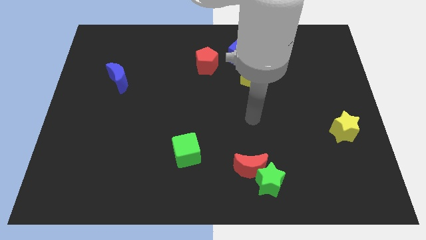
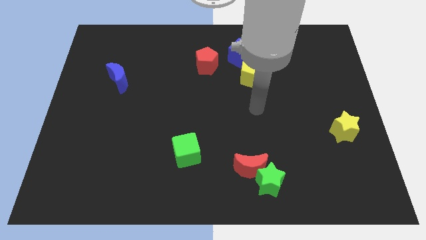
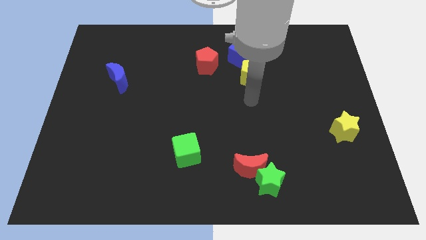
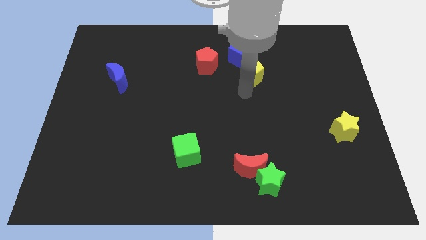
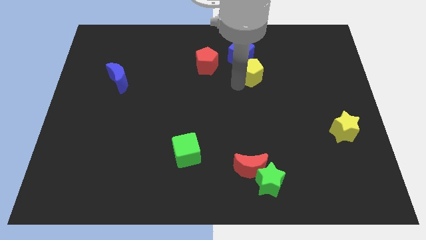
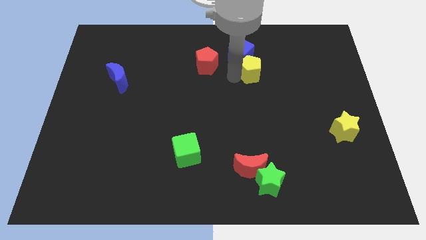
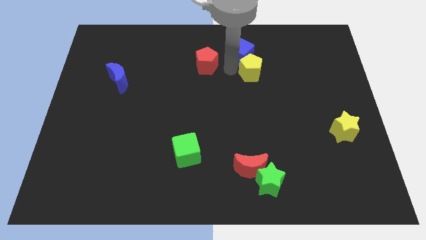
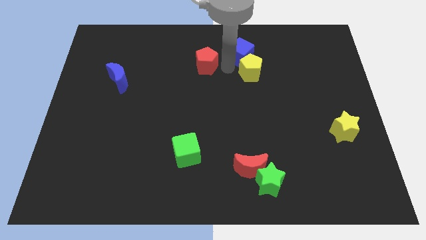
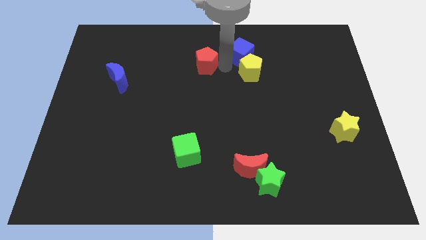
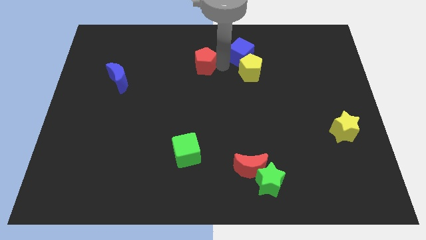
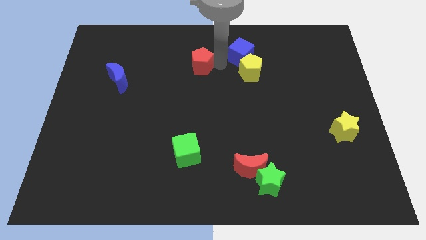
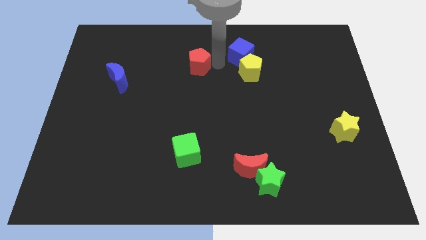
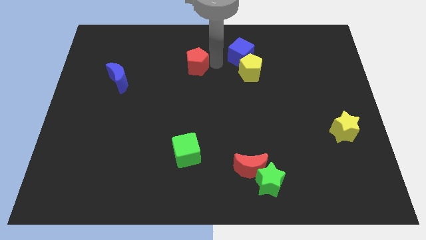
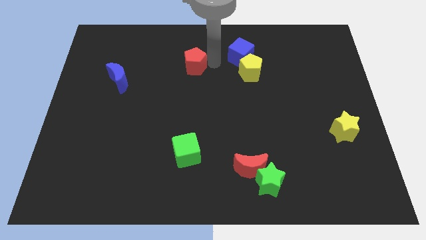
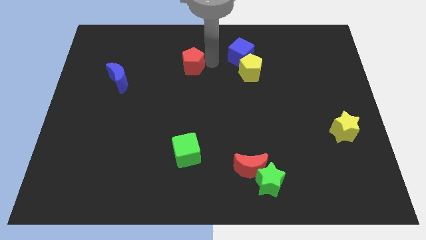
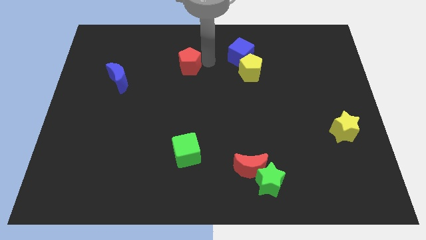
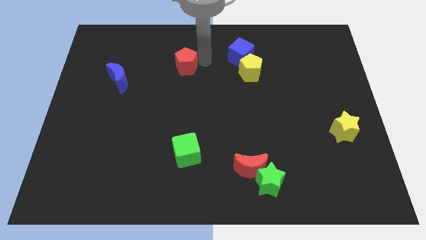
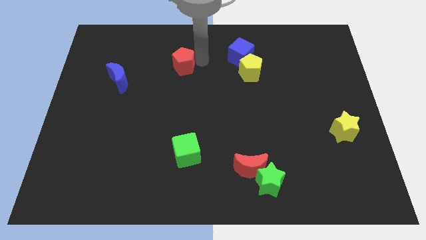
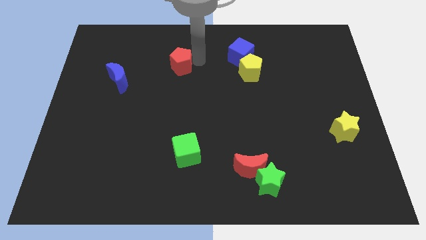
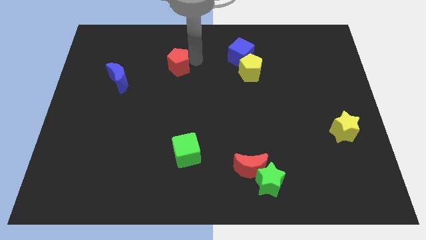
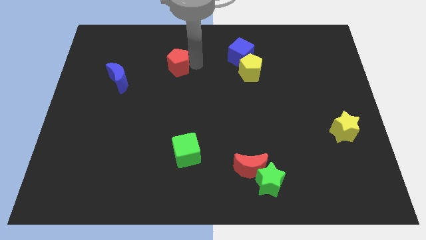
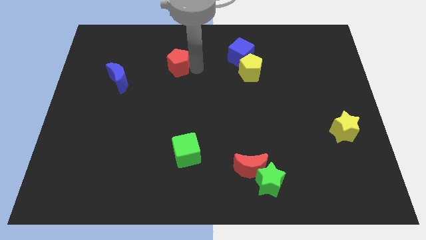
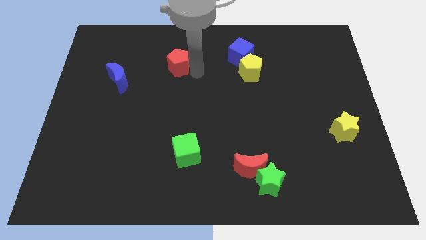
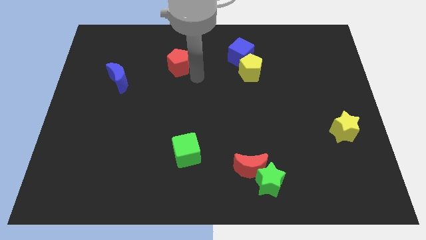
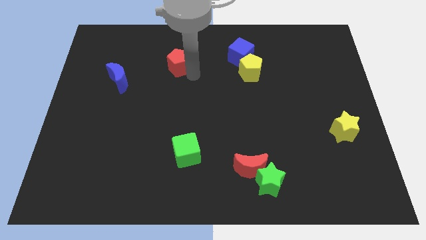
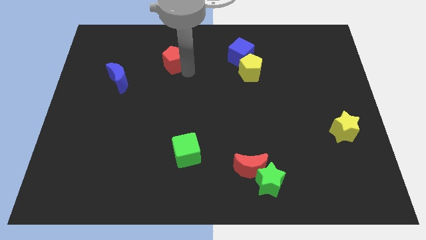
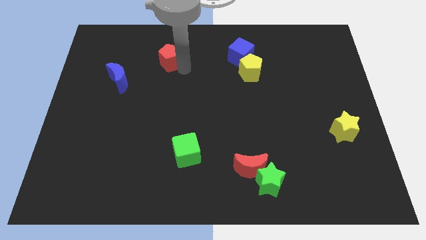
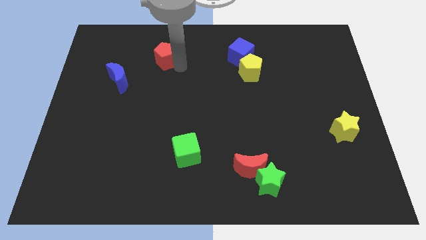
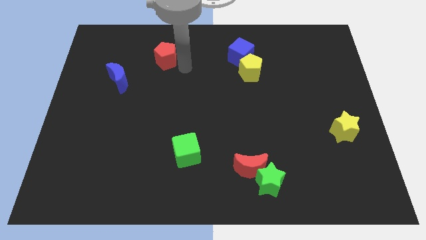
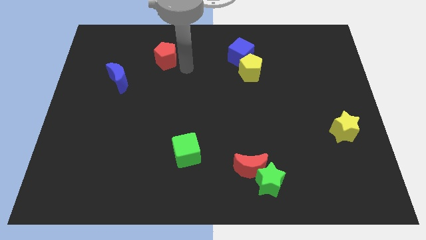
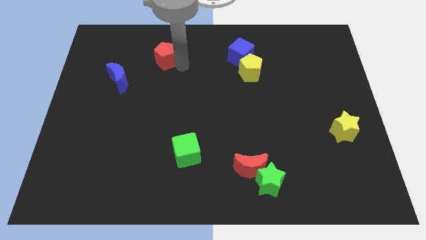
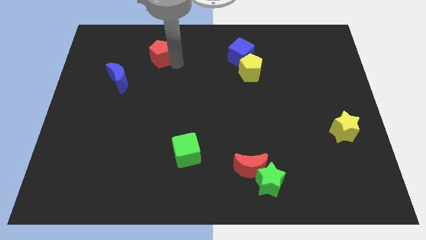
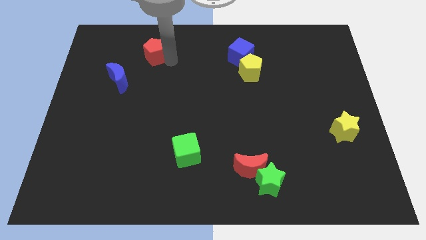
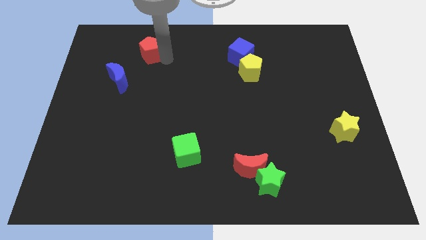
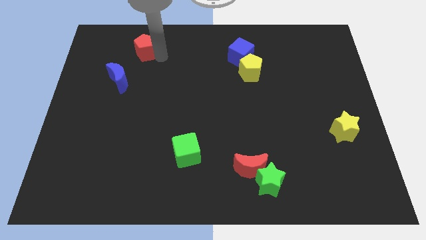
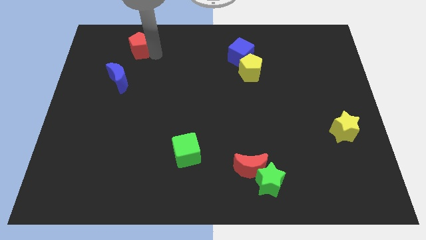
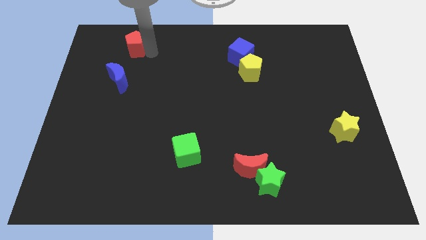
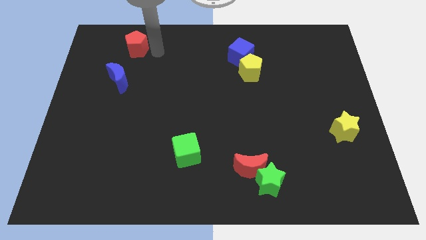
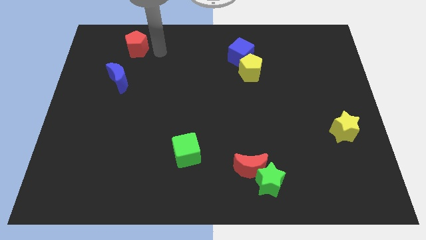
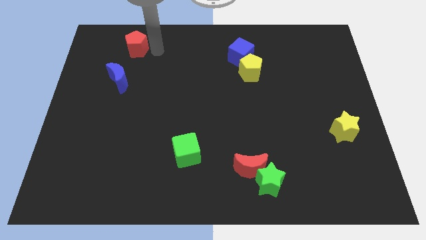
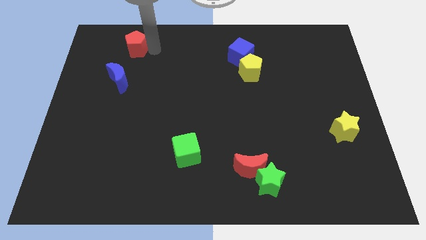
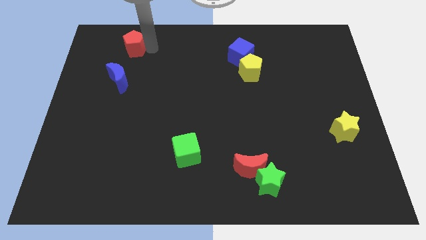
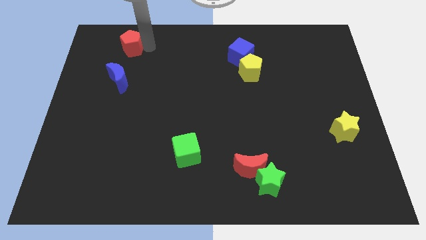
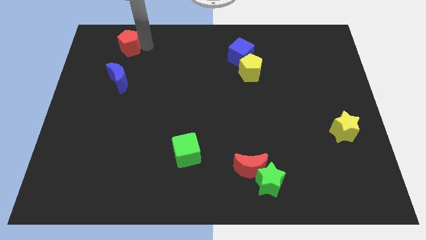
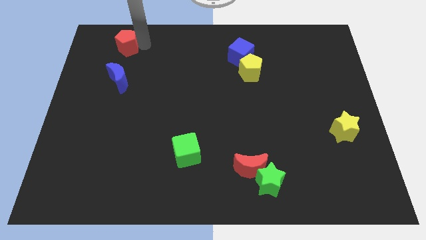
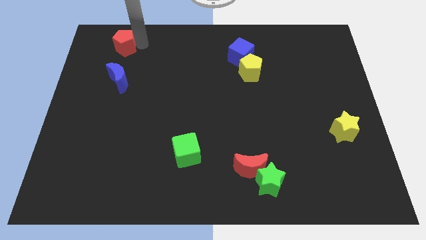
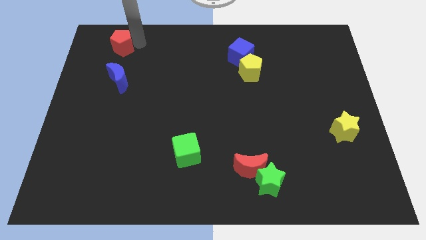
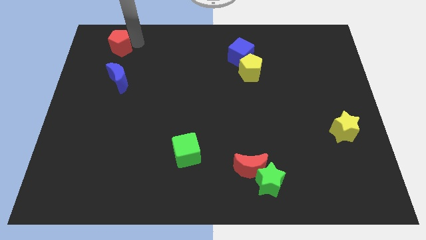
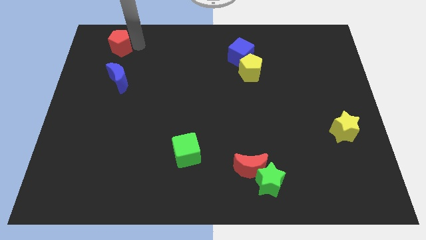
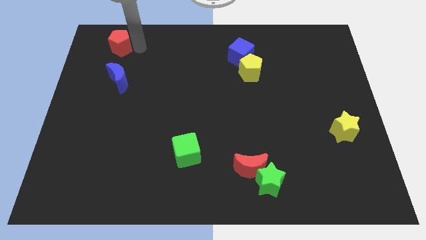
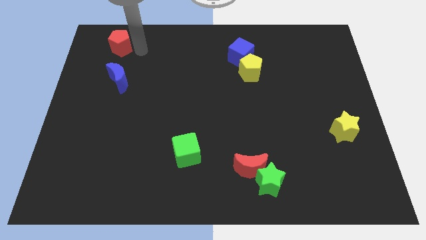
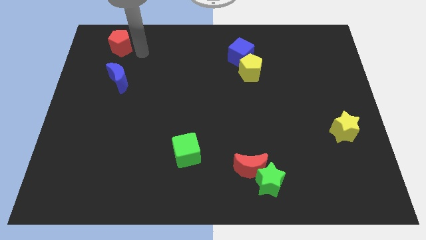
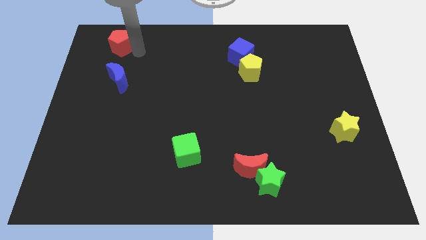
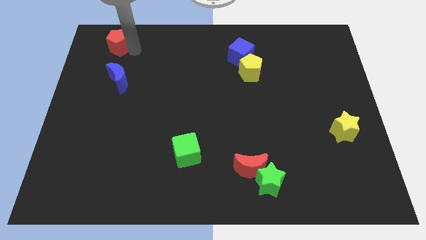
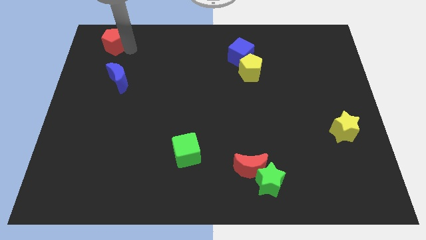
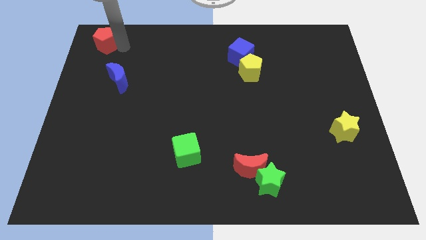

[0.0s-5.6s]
put the red pentagon to the top left

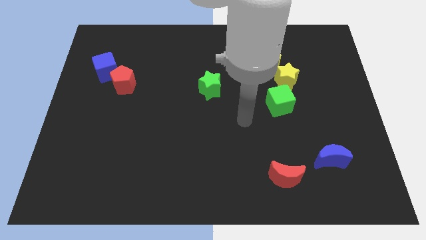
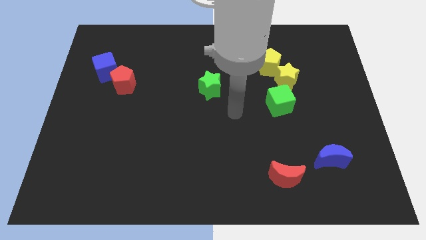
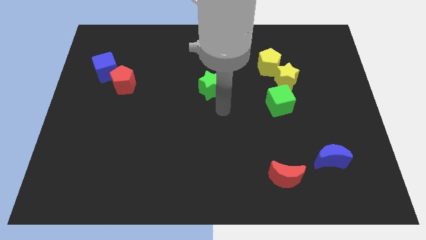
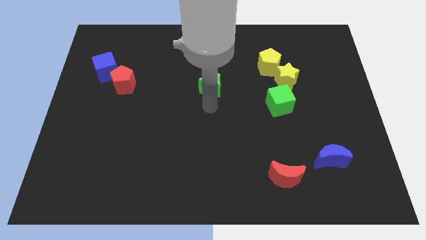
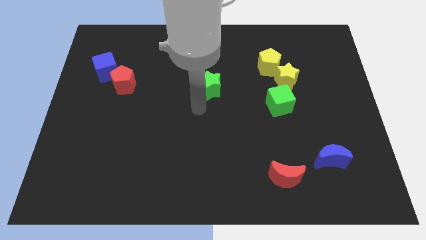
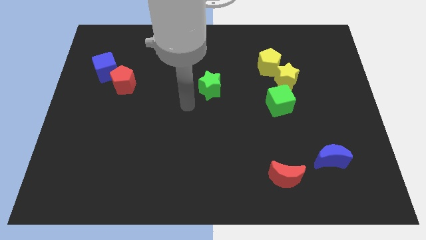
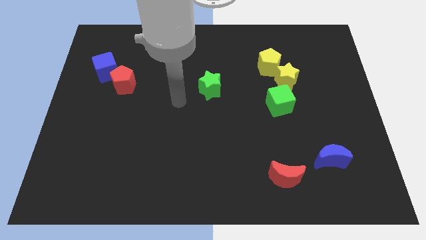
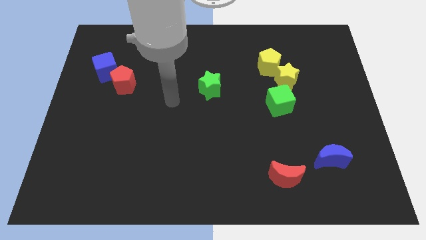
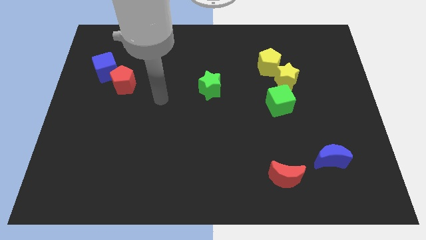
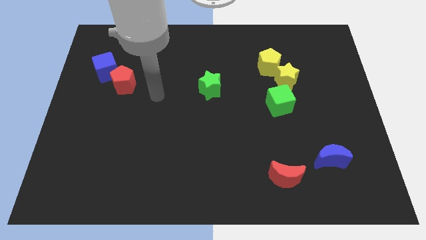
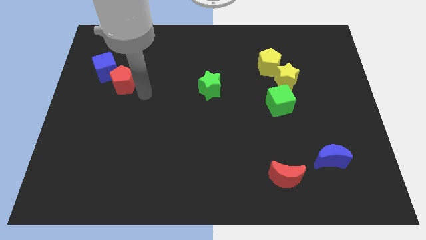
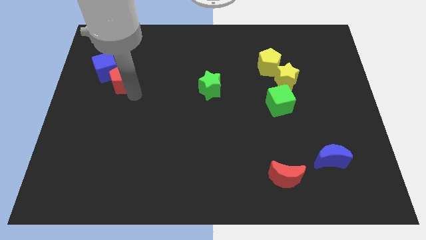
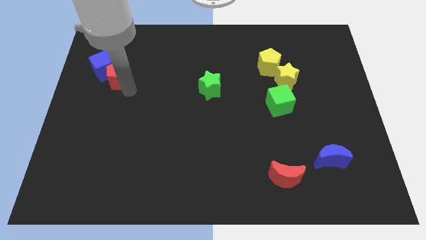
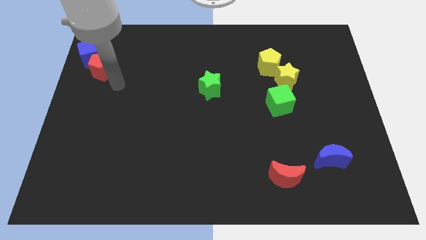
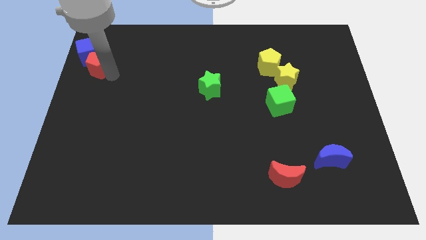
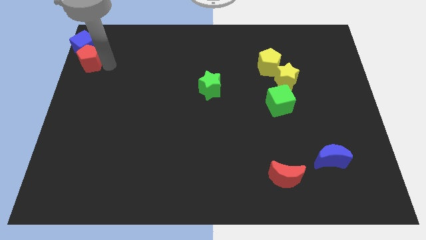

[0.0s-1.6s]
slide the blue cube to the top left of the board
